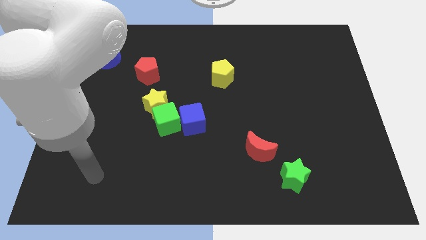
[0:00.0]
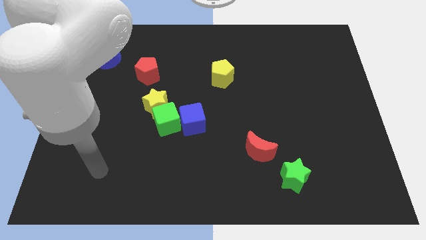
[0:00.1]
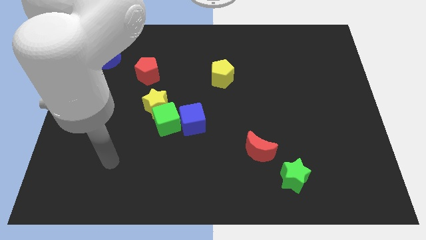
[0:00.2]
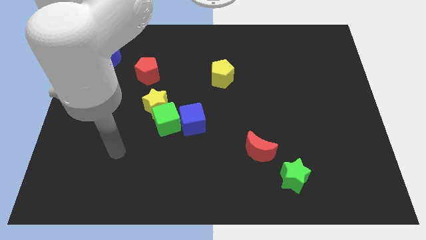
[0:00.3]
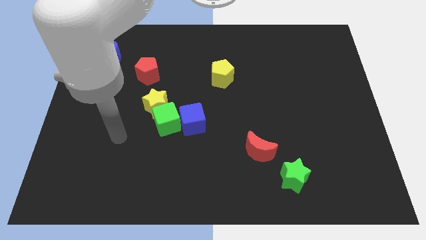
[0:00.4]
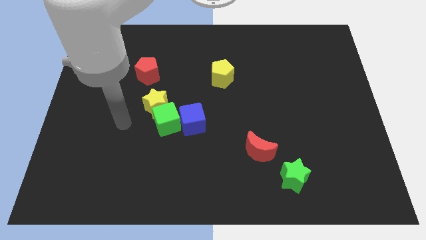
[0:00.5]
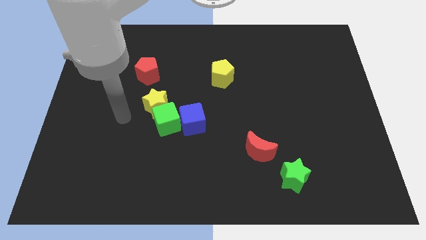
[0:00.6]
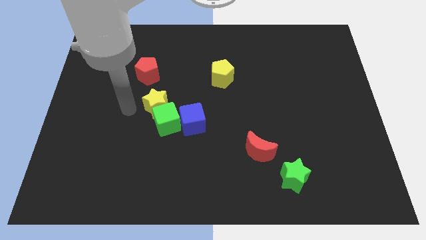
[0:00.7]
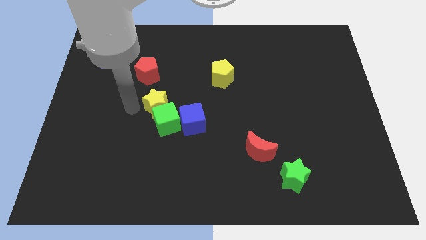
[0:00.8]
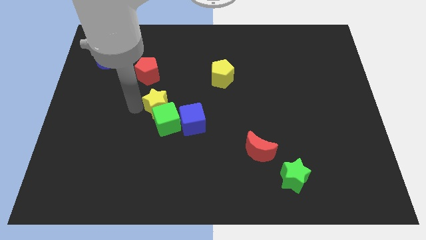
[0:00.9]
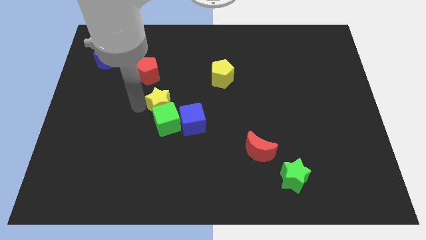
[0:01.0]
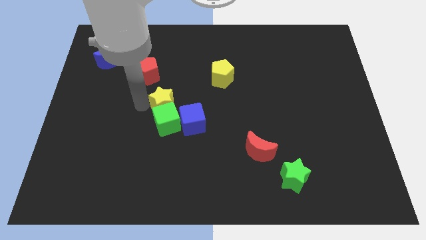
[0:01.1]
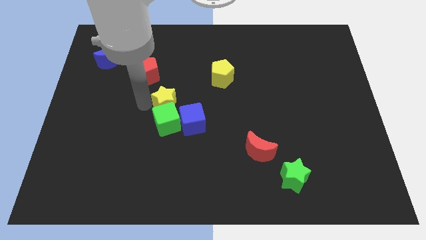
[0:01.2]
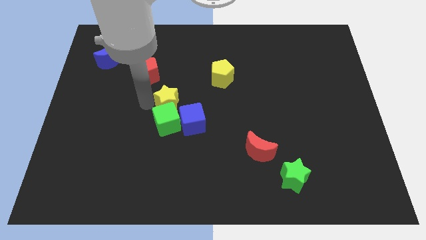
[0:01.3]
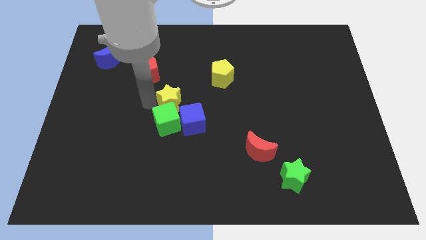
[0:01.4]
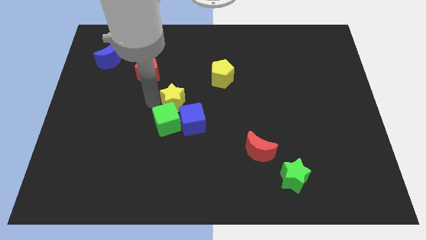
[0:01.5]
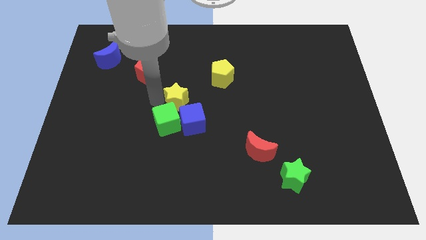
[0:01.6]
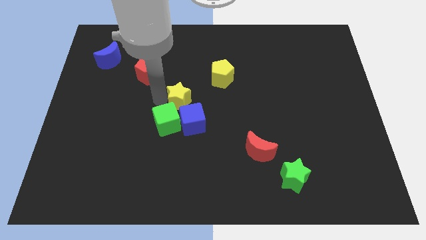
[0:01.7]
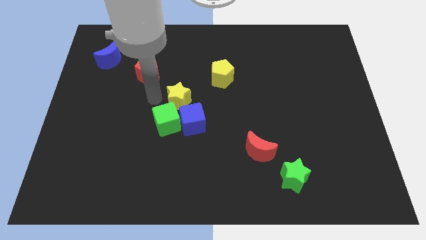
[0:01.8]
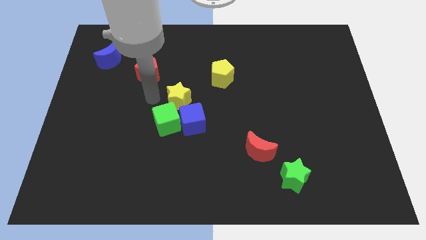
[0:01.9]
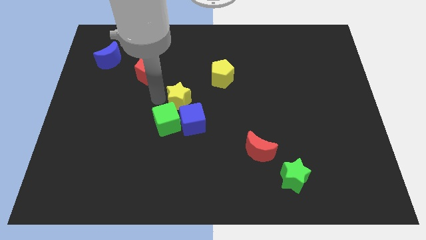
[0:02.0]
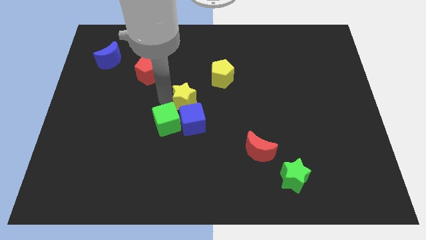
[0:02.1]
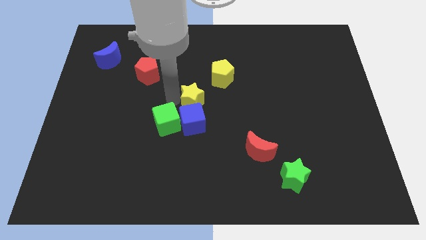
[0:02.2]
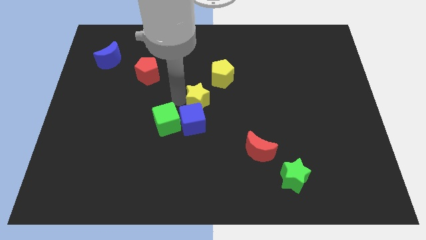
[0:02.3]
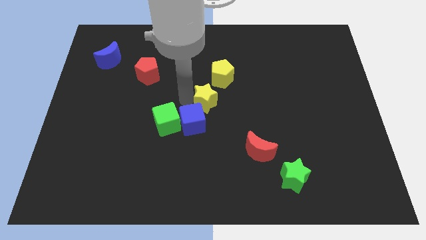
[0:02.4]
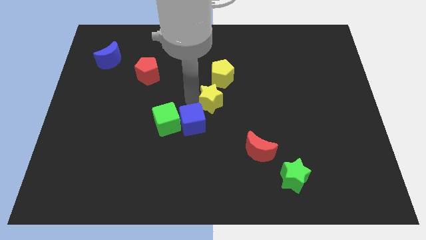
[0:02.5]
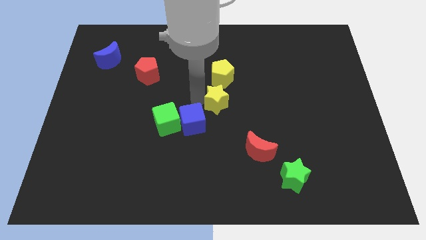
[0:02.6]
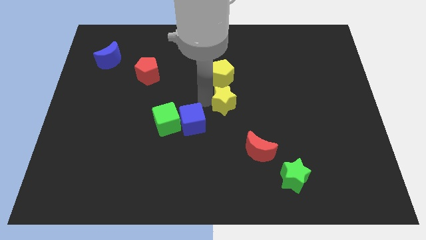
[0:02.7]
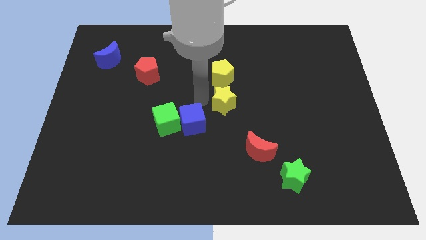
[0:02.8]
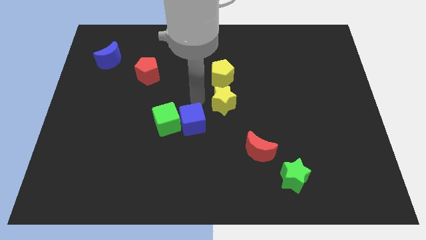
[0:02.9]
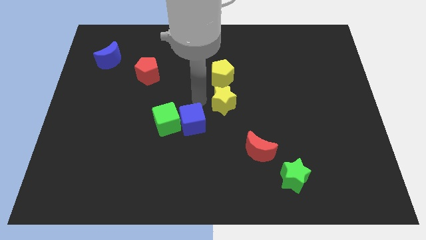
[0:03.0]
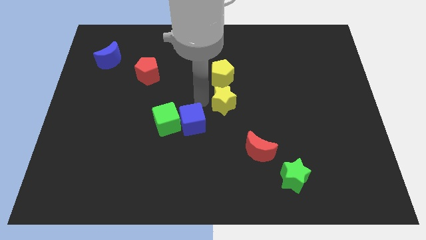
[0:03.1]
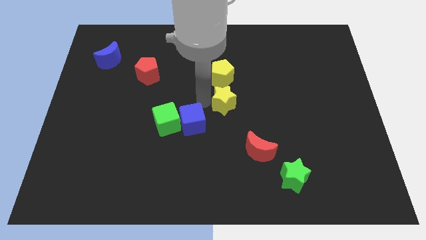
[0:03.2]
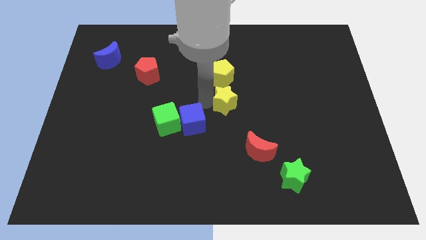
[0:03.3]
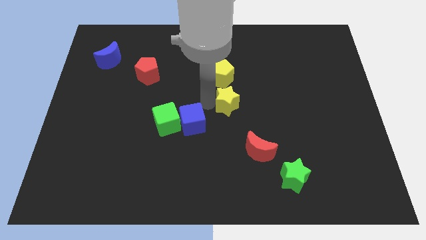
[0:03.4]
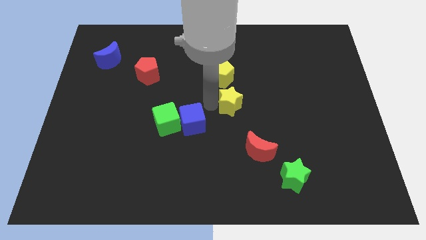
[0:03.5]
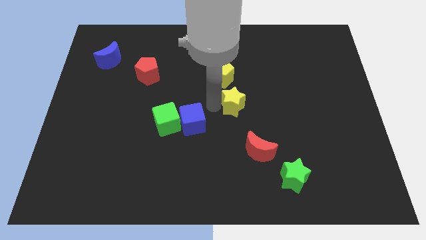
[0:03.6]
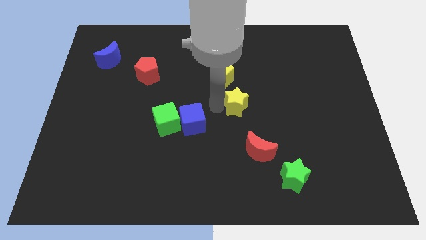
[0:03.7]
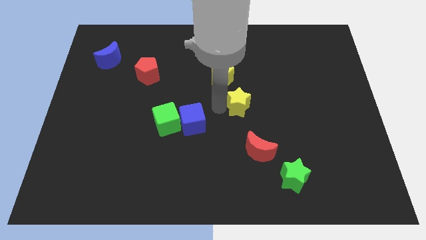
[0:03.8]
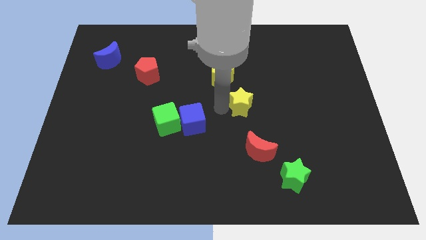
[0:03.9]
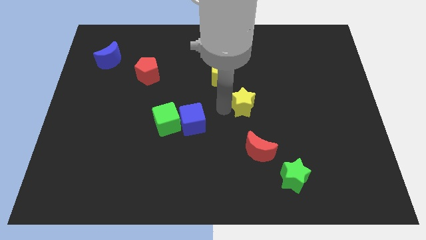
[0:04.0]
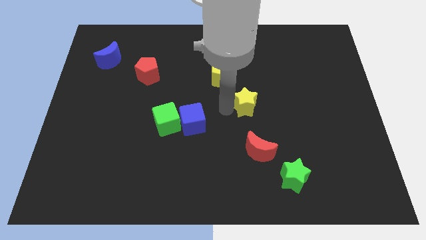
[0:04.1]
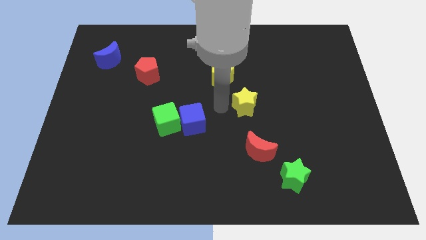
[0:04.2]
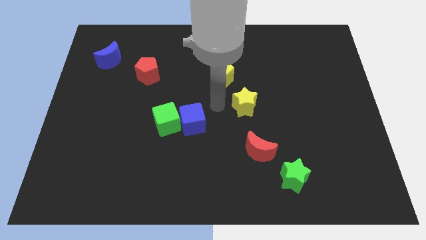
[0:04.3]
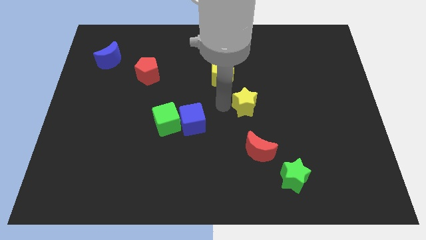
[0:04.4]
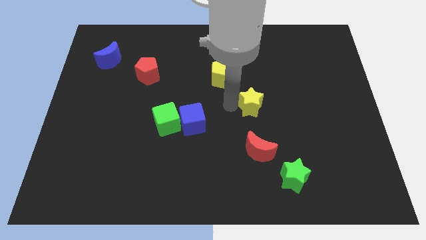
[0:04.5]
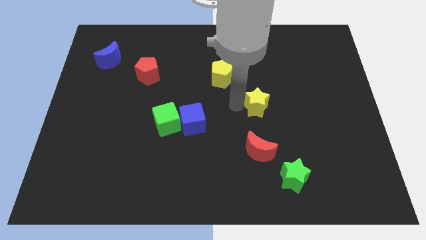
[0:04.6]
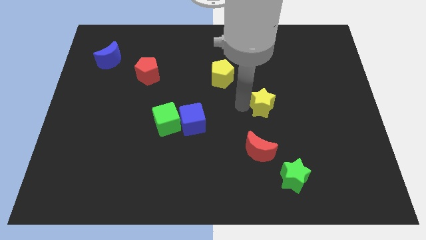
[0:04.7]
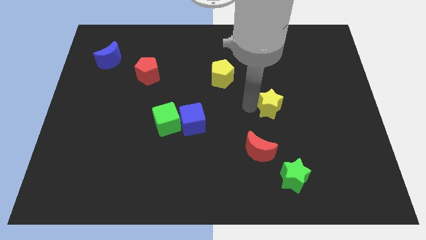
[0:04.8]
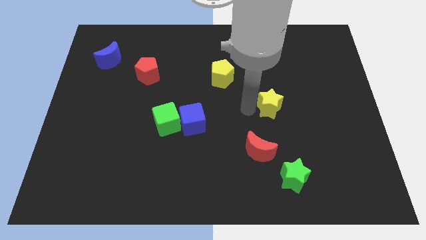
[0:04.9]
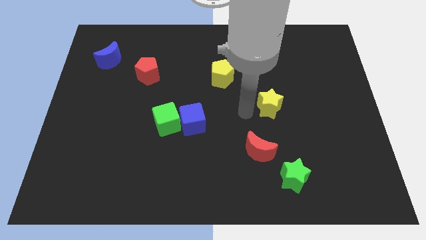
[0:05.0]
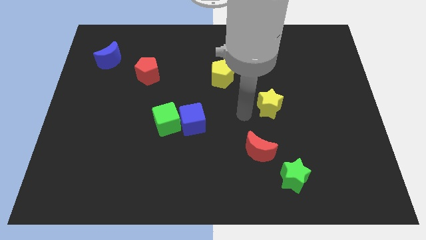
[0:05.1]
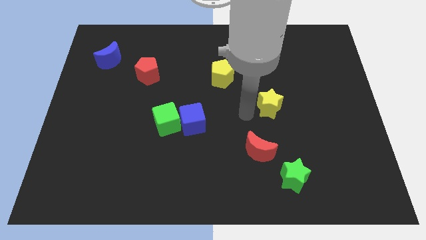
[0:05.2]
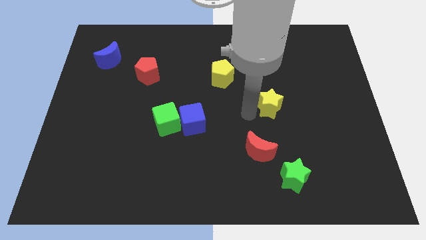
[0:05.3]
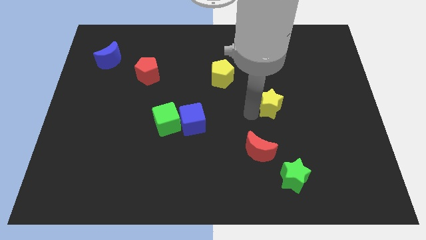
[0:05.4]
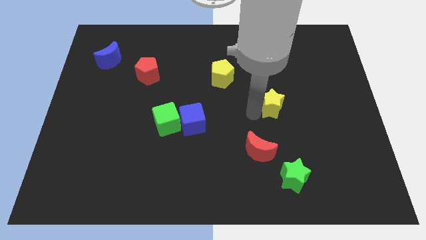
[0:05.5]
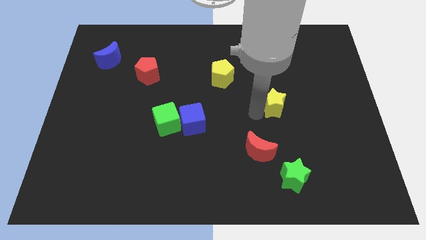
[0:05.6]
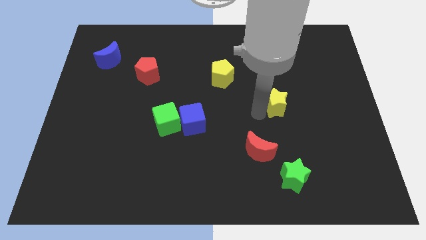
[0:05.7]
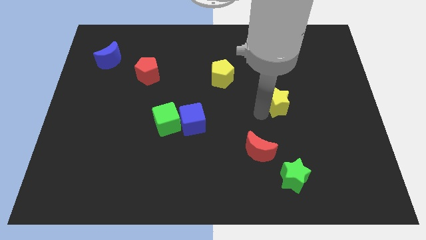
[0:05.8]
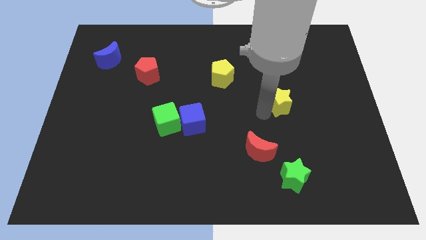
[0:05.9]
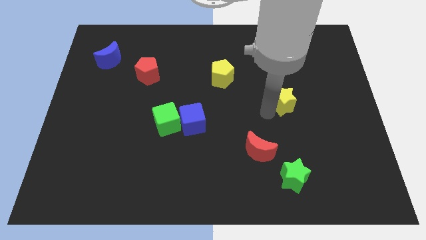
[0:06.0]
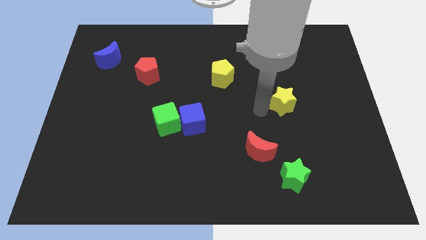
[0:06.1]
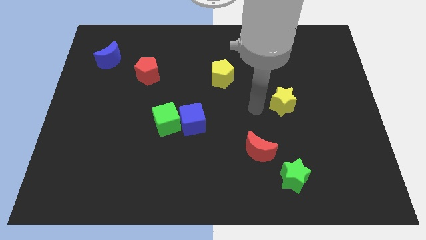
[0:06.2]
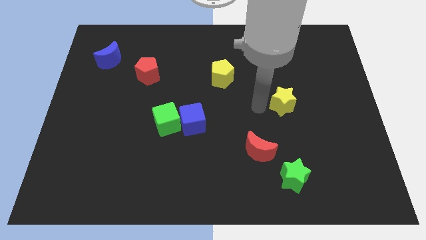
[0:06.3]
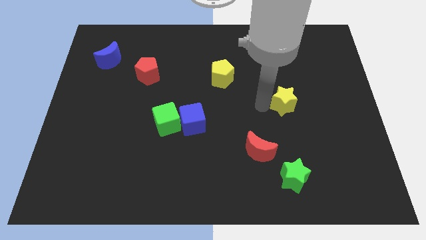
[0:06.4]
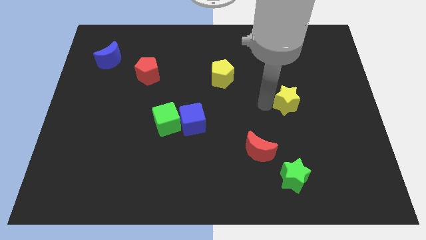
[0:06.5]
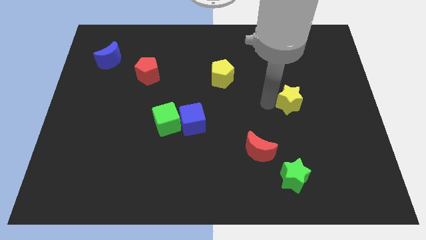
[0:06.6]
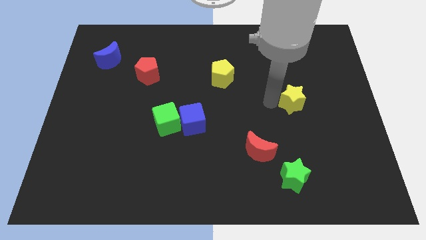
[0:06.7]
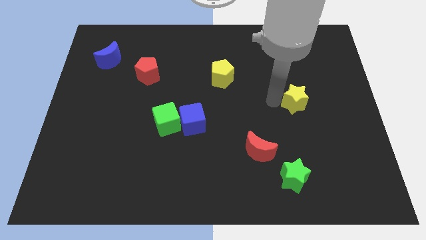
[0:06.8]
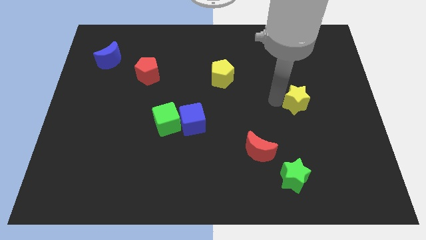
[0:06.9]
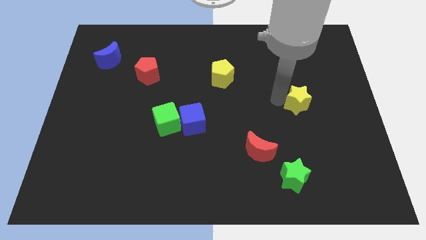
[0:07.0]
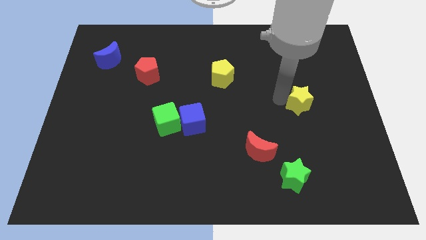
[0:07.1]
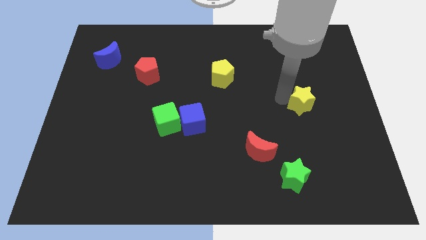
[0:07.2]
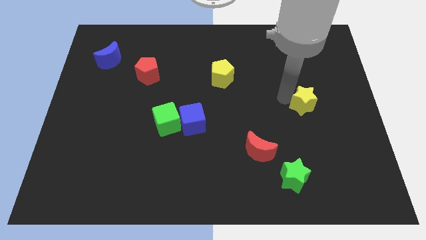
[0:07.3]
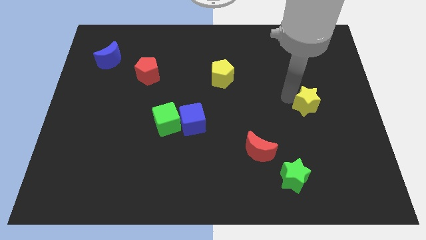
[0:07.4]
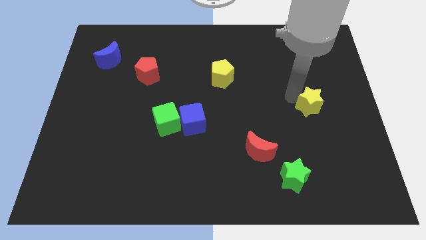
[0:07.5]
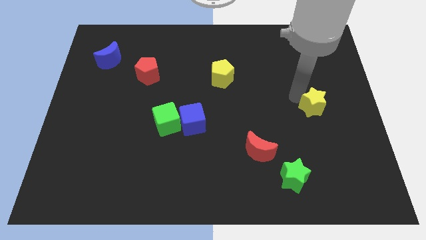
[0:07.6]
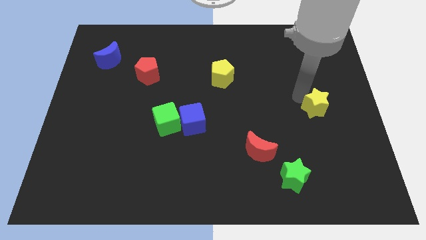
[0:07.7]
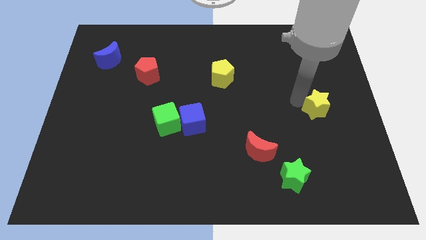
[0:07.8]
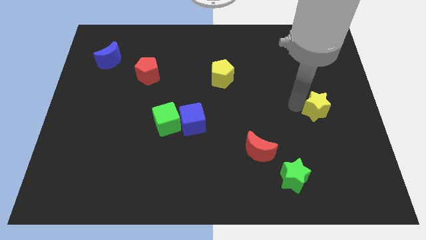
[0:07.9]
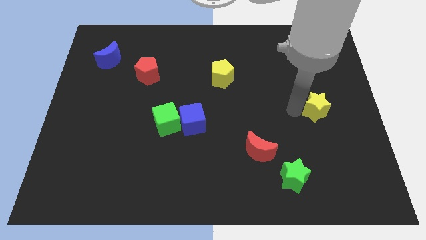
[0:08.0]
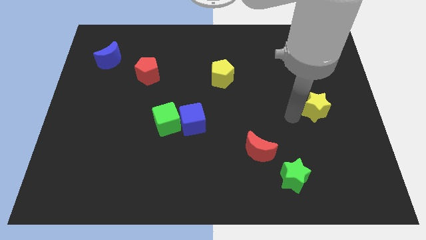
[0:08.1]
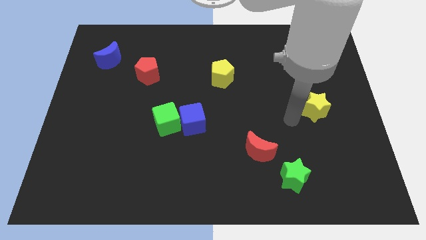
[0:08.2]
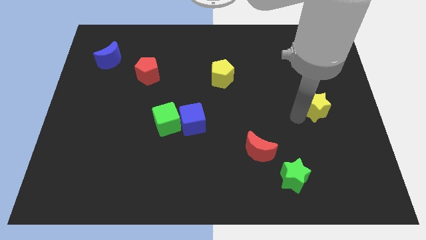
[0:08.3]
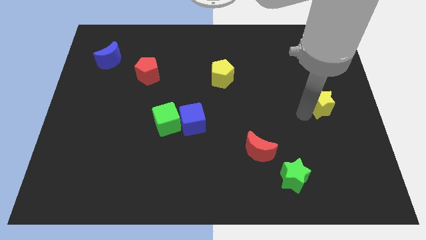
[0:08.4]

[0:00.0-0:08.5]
push the yellow star to the center right
